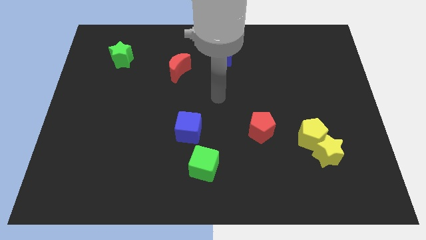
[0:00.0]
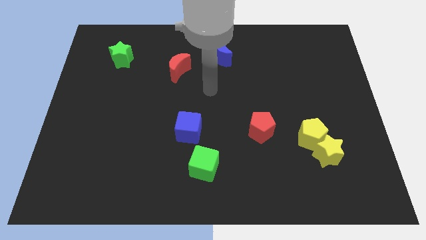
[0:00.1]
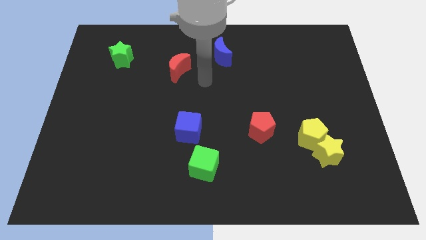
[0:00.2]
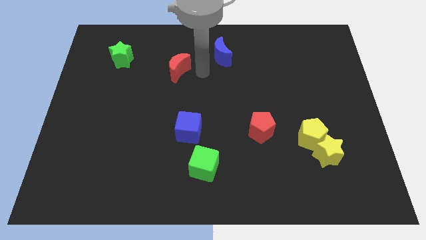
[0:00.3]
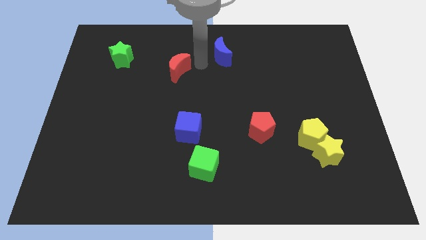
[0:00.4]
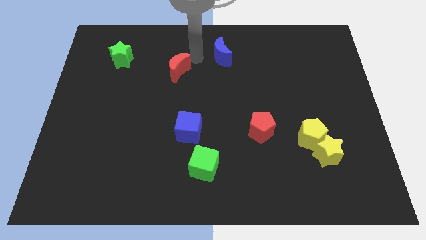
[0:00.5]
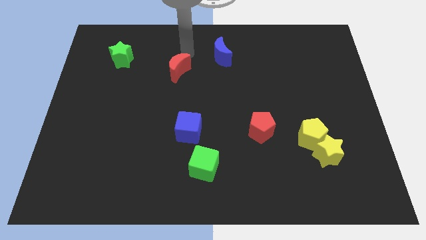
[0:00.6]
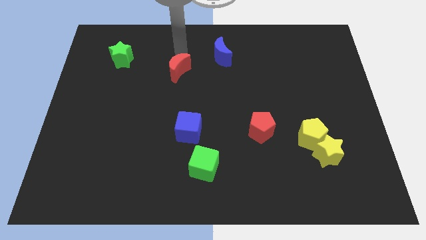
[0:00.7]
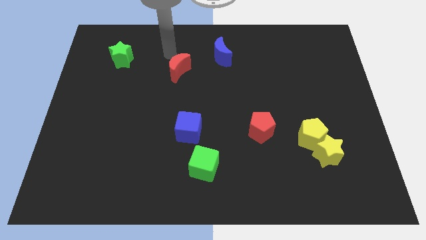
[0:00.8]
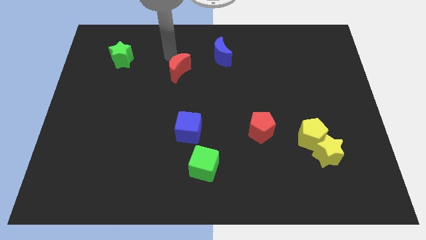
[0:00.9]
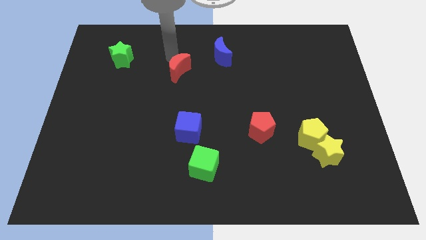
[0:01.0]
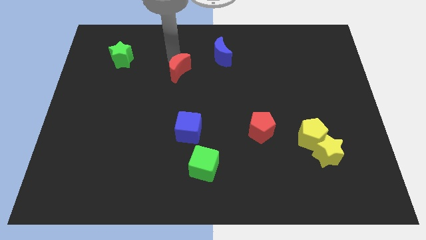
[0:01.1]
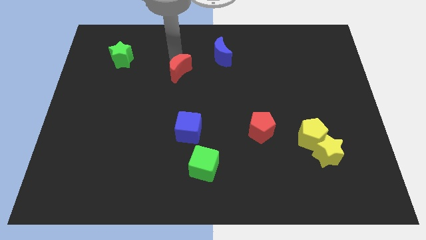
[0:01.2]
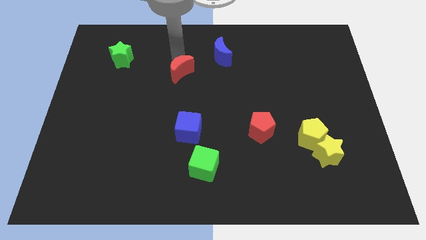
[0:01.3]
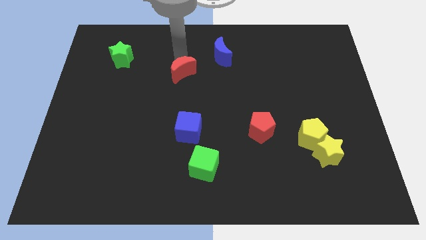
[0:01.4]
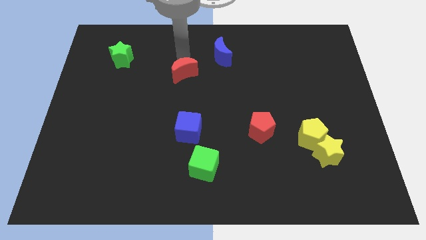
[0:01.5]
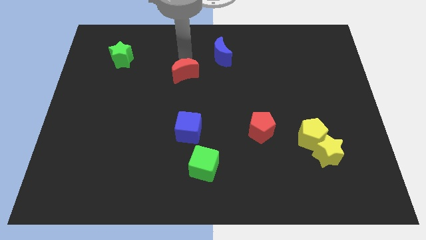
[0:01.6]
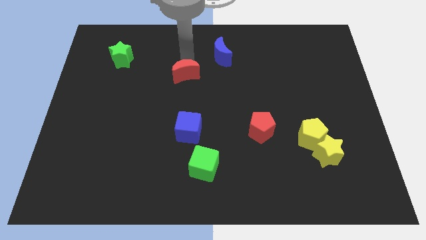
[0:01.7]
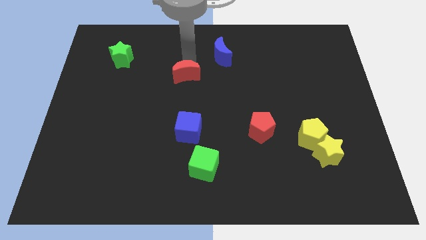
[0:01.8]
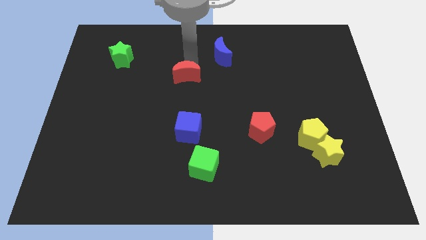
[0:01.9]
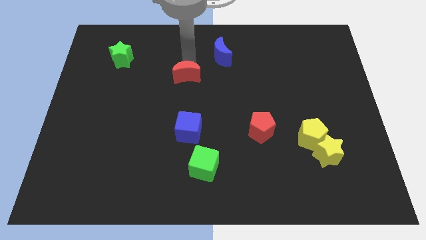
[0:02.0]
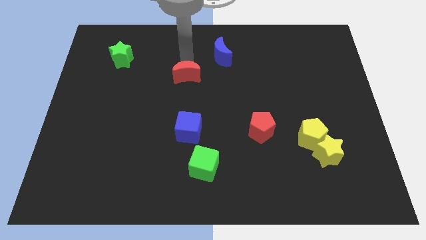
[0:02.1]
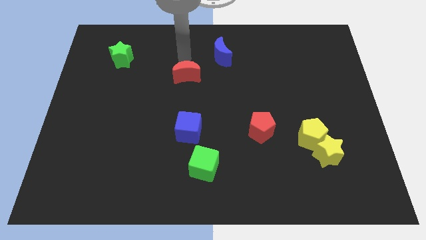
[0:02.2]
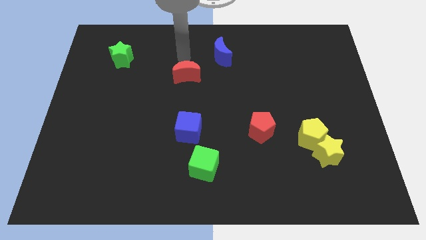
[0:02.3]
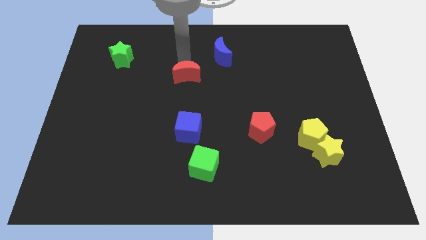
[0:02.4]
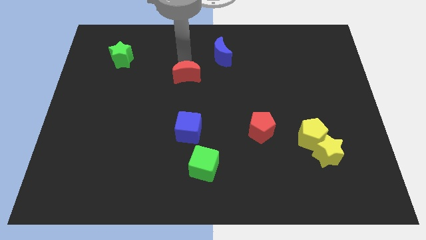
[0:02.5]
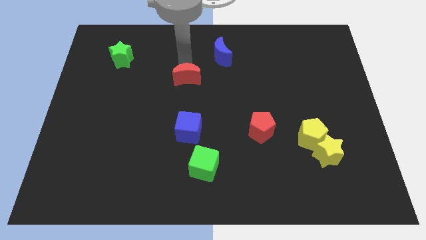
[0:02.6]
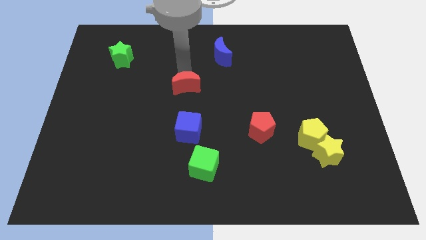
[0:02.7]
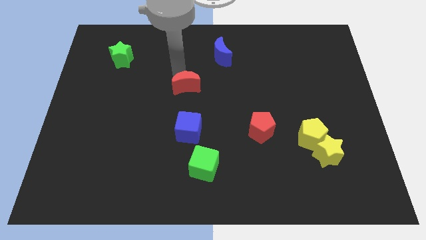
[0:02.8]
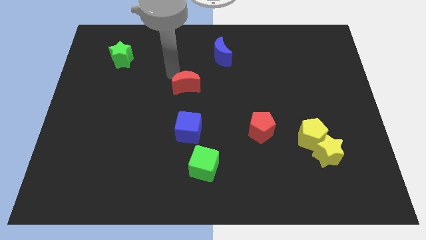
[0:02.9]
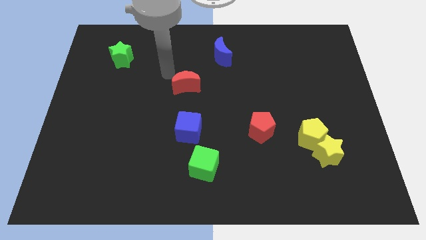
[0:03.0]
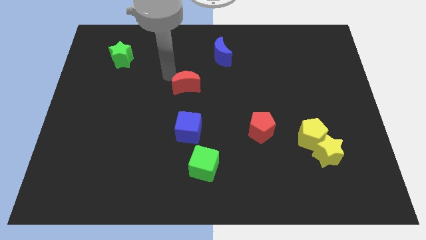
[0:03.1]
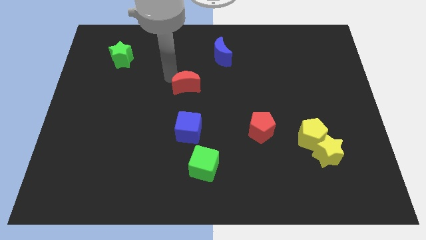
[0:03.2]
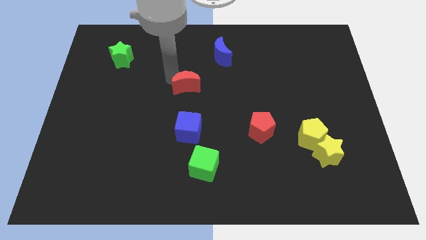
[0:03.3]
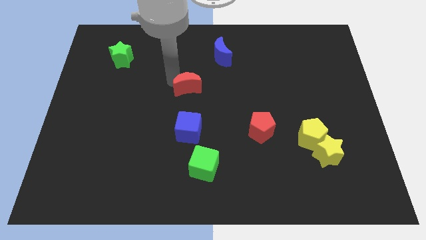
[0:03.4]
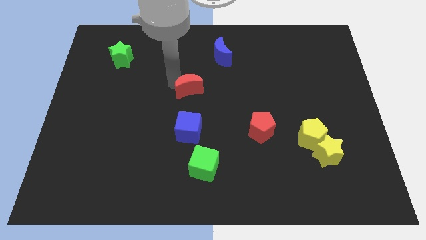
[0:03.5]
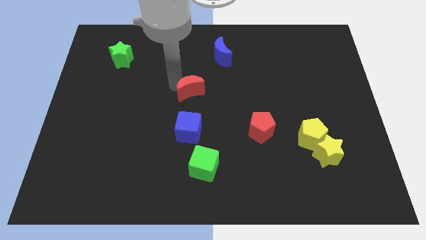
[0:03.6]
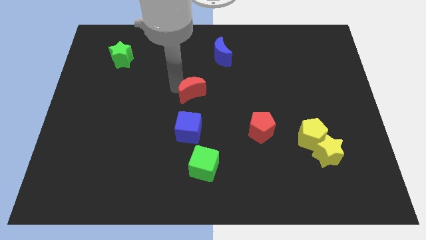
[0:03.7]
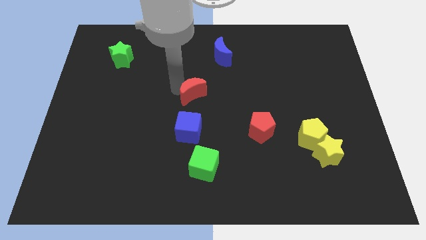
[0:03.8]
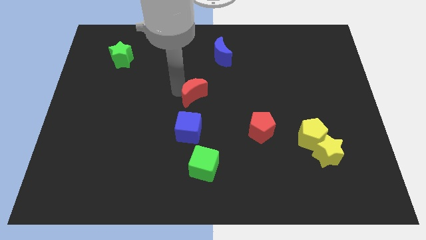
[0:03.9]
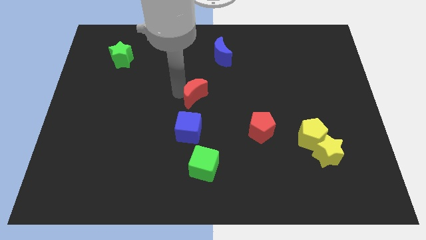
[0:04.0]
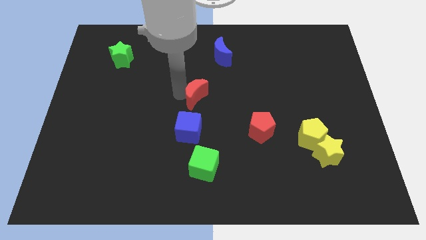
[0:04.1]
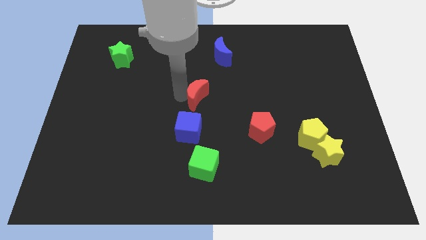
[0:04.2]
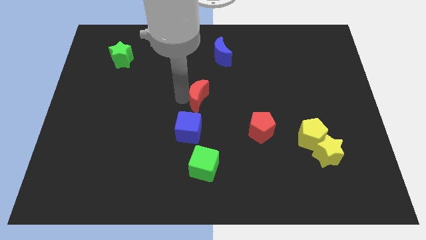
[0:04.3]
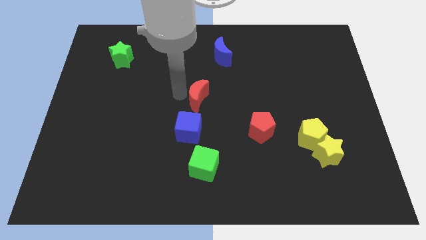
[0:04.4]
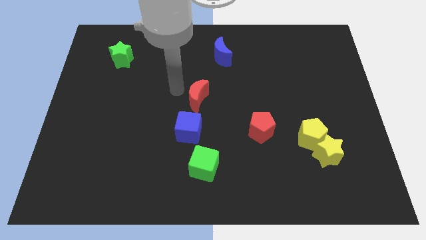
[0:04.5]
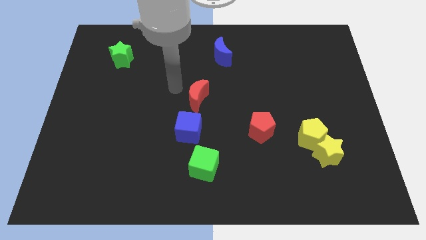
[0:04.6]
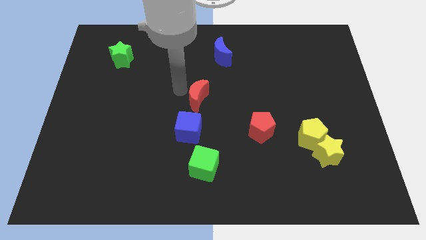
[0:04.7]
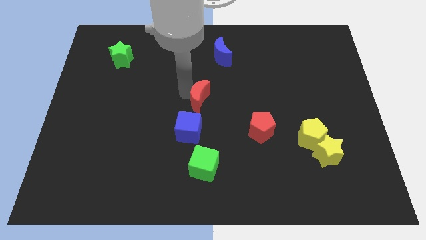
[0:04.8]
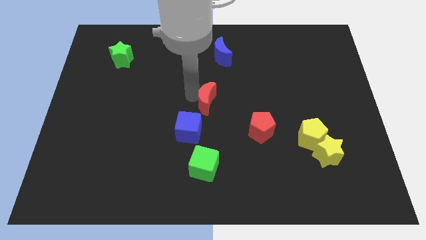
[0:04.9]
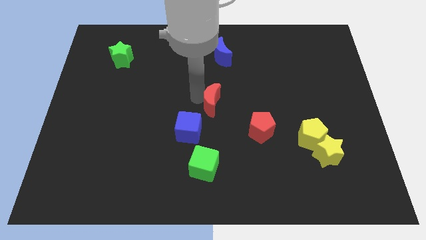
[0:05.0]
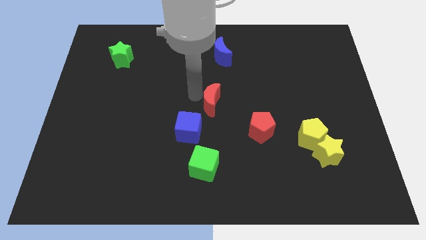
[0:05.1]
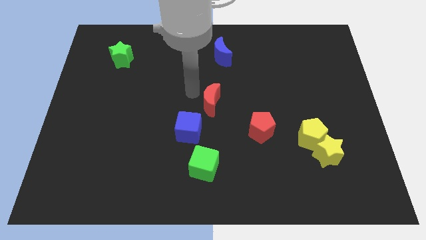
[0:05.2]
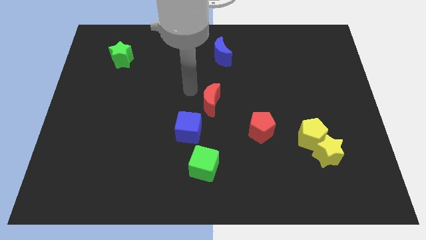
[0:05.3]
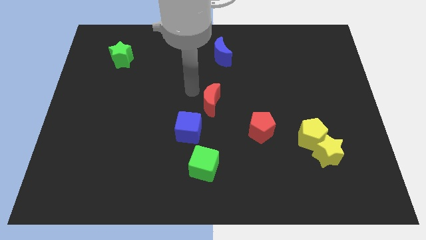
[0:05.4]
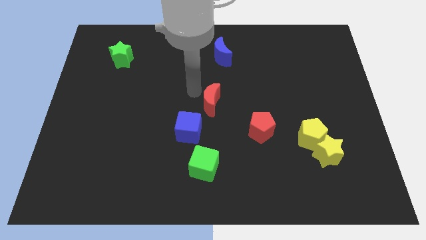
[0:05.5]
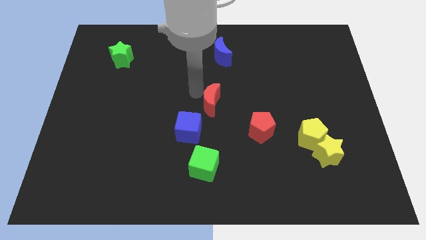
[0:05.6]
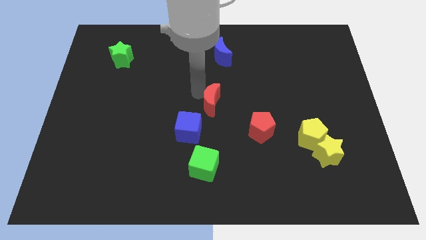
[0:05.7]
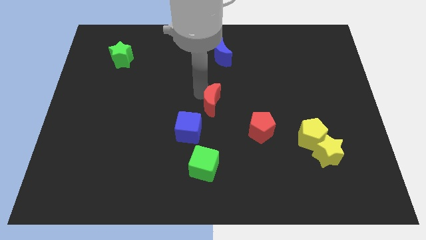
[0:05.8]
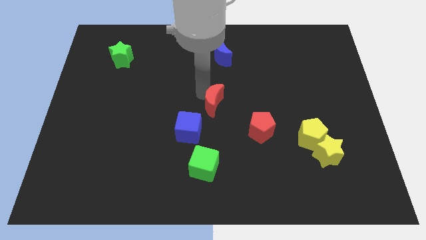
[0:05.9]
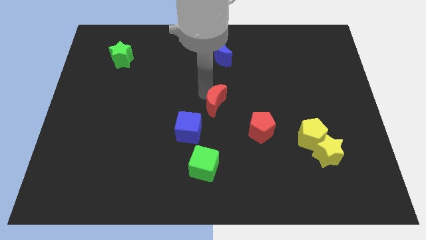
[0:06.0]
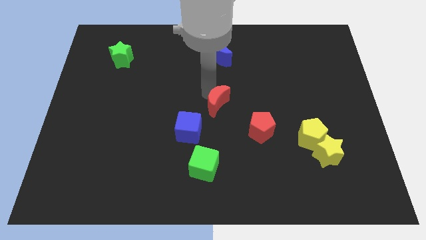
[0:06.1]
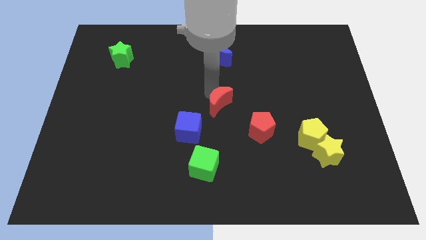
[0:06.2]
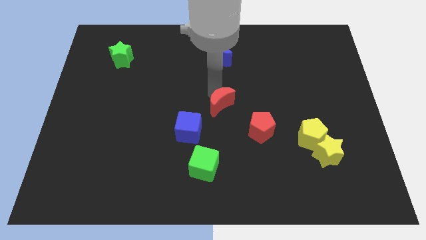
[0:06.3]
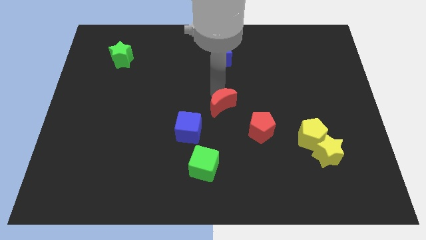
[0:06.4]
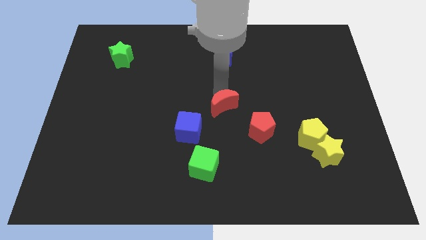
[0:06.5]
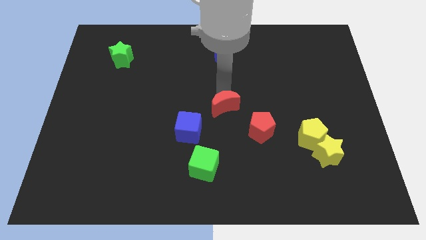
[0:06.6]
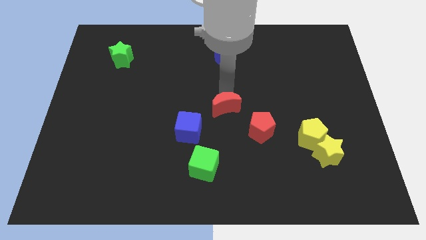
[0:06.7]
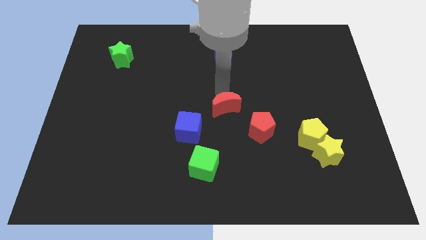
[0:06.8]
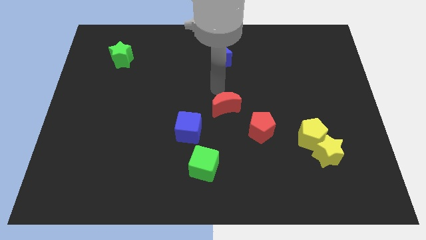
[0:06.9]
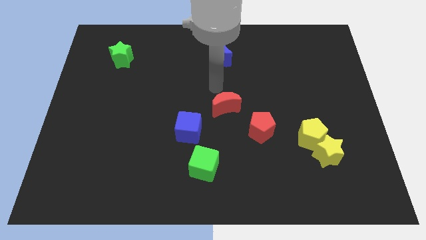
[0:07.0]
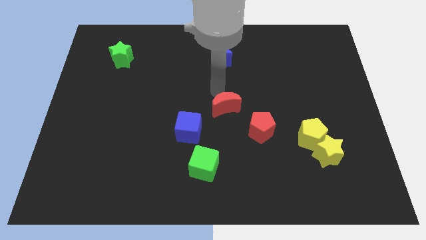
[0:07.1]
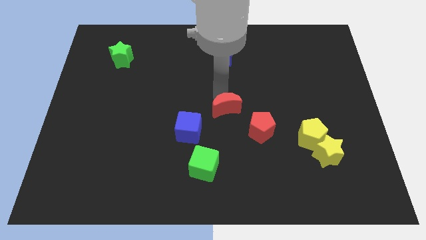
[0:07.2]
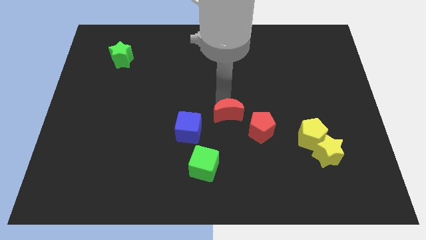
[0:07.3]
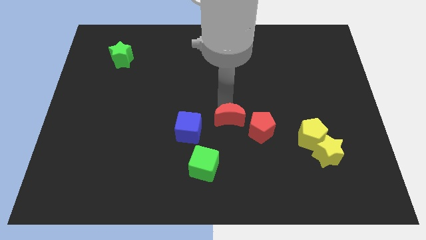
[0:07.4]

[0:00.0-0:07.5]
push the red moon diagonally down and to the right

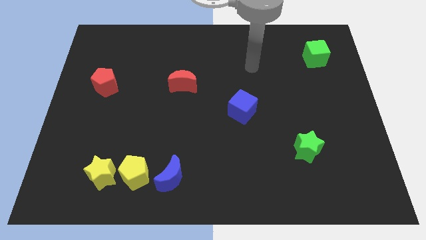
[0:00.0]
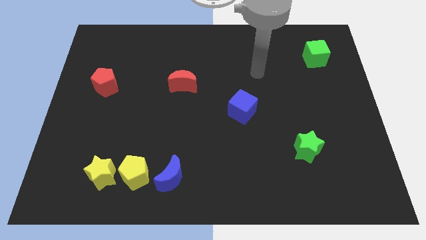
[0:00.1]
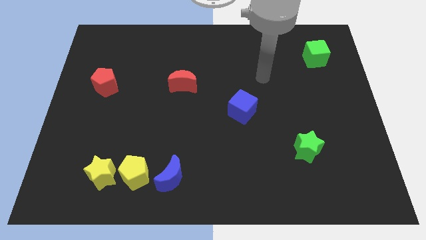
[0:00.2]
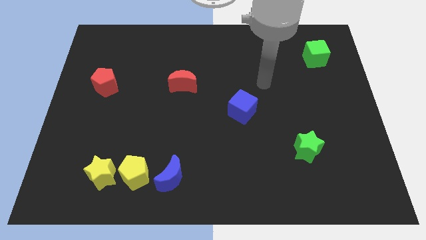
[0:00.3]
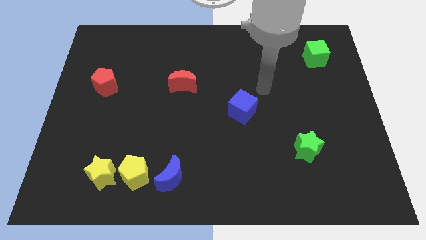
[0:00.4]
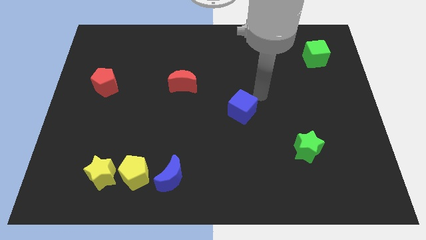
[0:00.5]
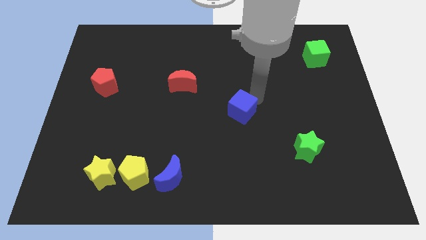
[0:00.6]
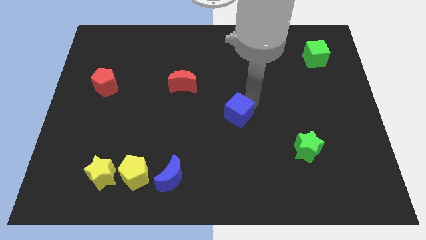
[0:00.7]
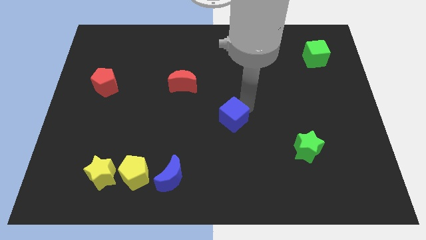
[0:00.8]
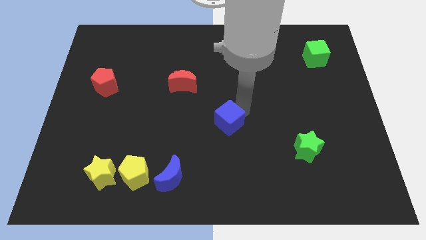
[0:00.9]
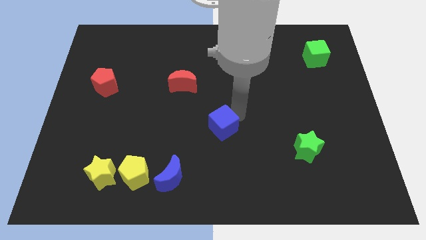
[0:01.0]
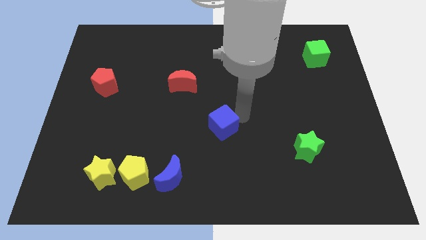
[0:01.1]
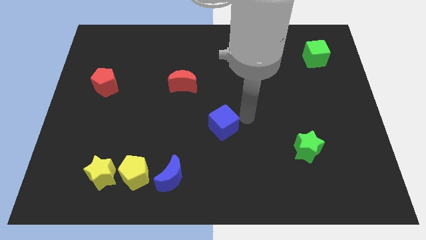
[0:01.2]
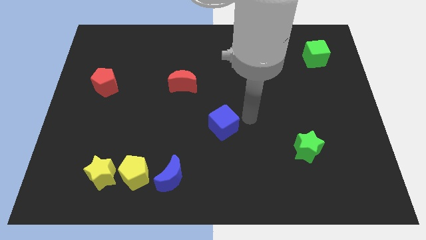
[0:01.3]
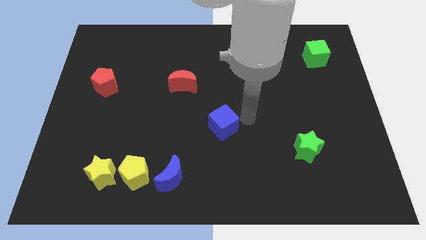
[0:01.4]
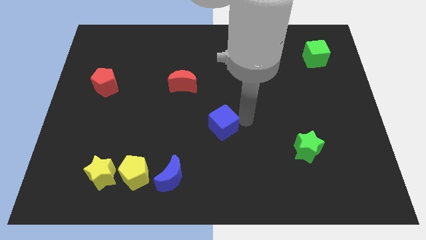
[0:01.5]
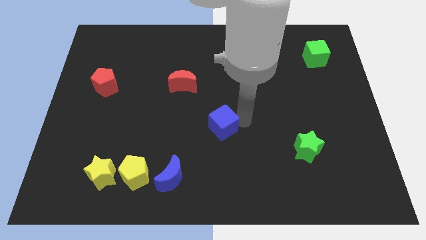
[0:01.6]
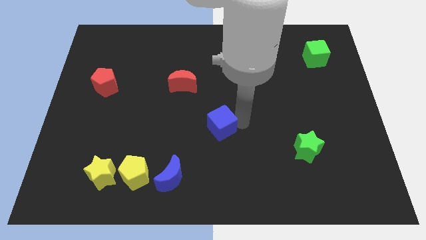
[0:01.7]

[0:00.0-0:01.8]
push the blue cube downwards and to the left a little bit
